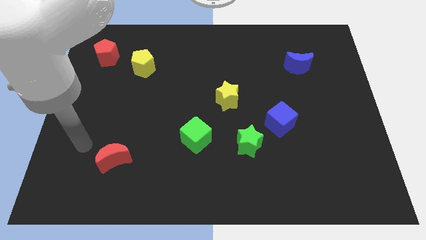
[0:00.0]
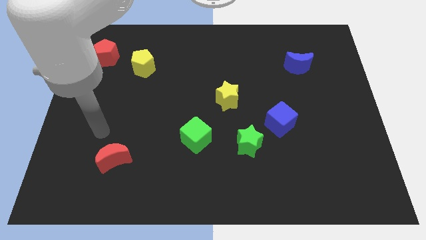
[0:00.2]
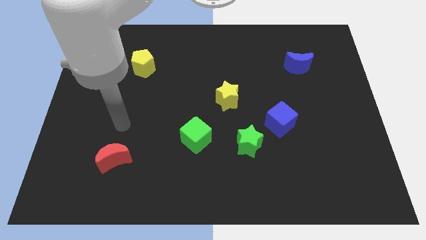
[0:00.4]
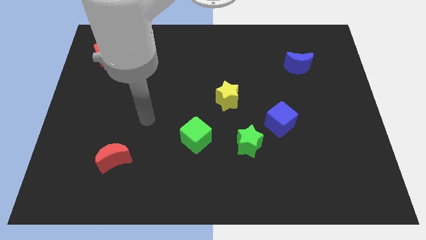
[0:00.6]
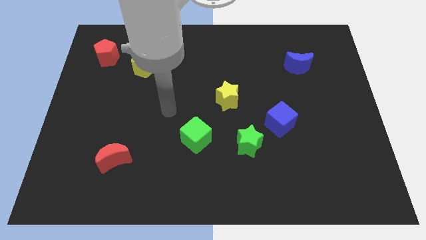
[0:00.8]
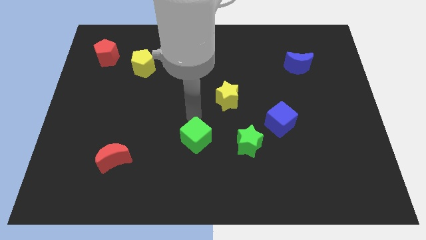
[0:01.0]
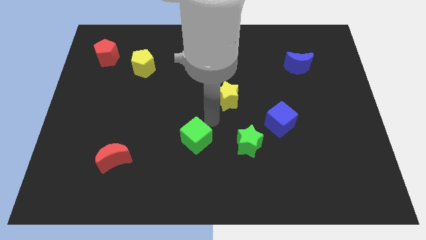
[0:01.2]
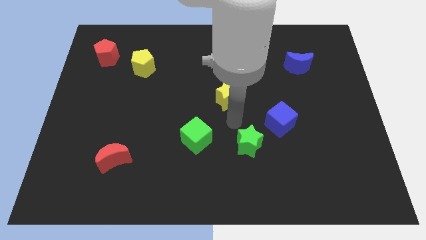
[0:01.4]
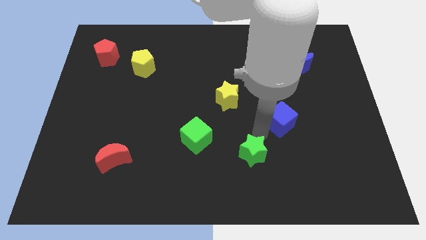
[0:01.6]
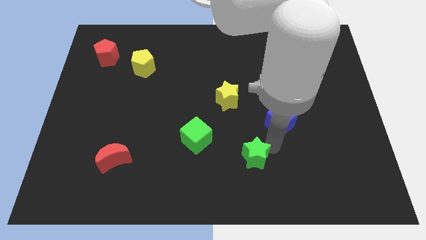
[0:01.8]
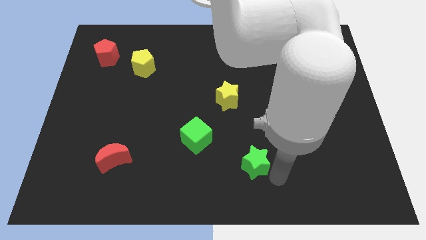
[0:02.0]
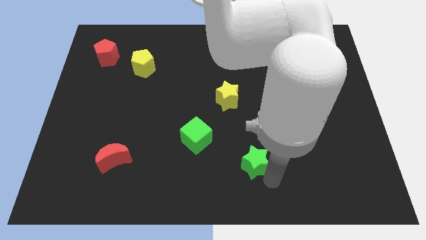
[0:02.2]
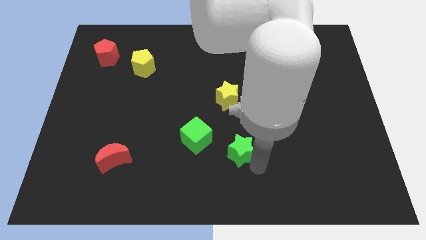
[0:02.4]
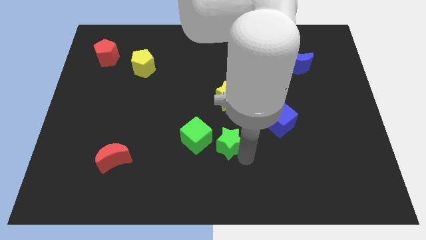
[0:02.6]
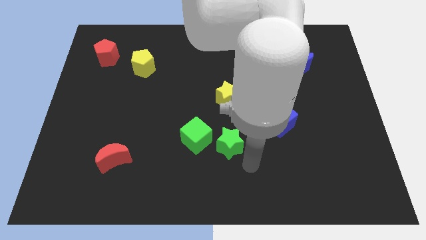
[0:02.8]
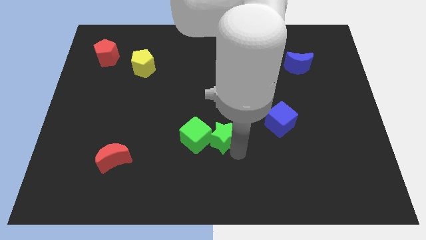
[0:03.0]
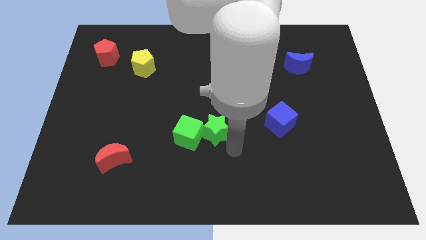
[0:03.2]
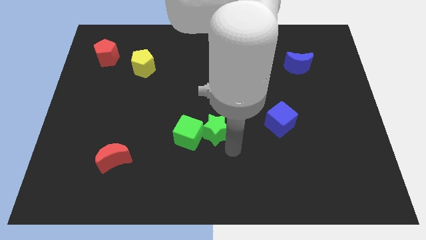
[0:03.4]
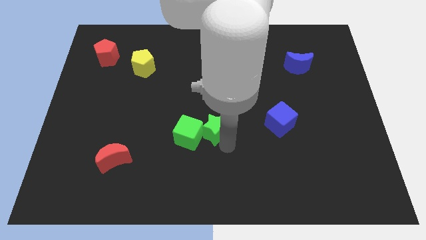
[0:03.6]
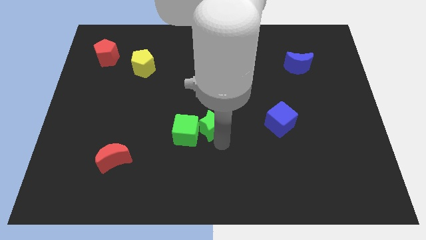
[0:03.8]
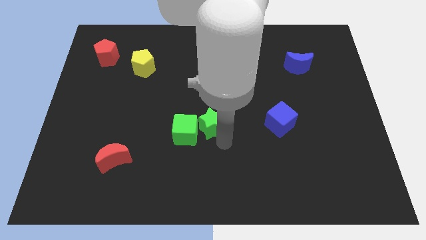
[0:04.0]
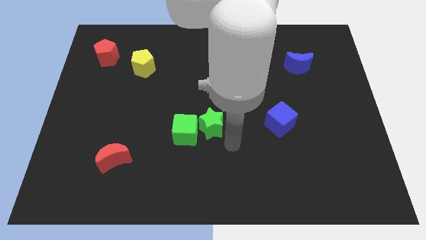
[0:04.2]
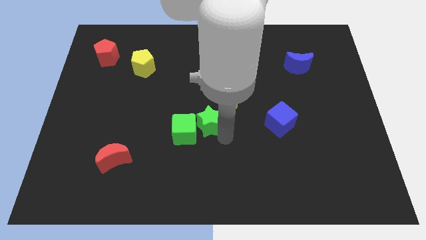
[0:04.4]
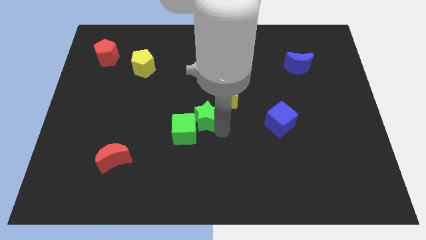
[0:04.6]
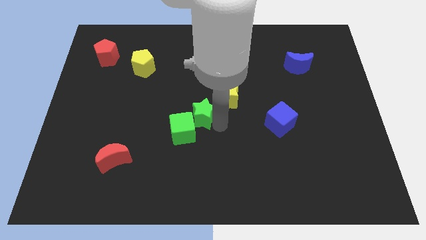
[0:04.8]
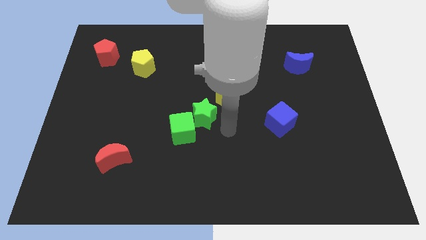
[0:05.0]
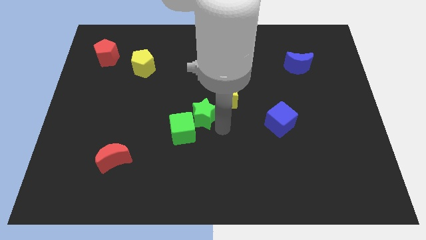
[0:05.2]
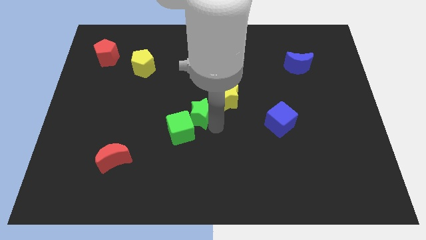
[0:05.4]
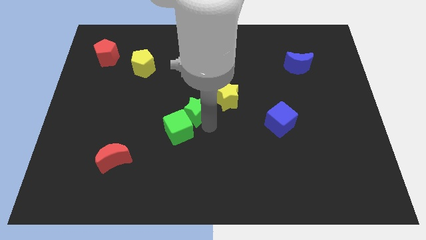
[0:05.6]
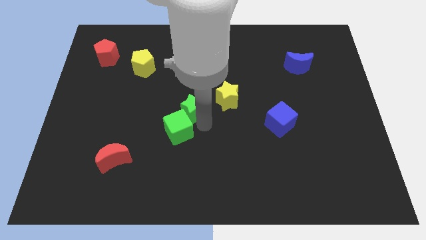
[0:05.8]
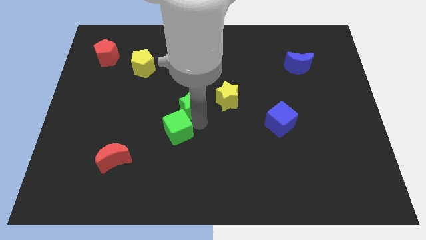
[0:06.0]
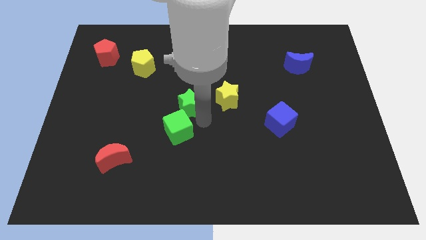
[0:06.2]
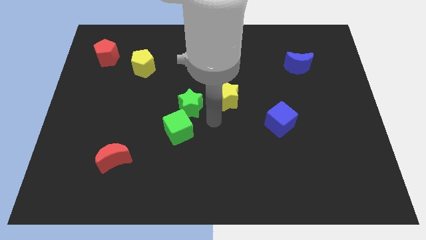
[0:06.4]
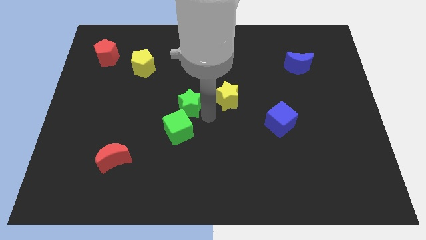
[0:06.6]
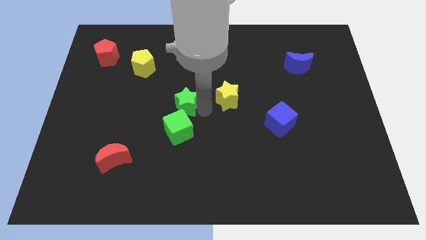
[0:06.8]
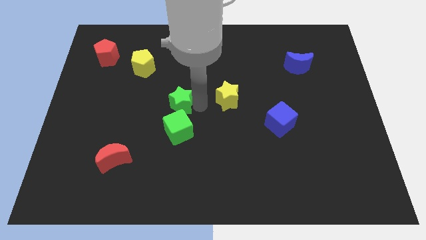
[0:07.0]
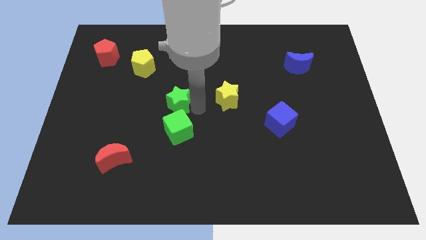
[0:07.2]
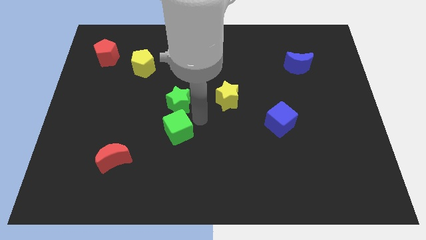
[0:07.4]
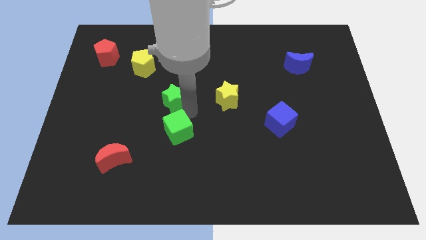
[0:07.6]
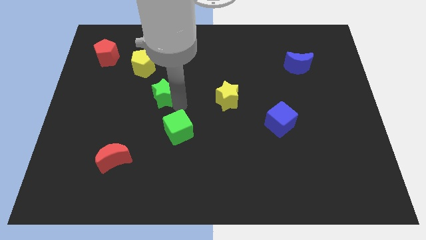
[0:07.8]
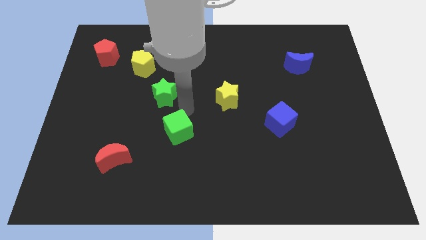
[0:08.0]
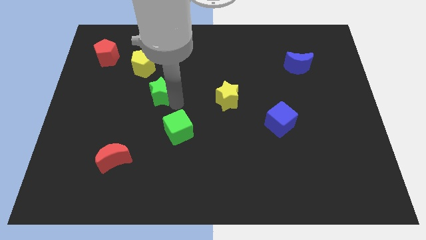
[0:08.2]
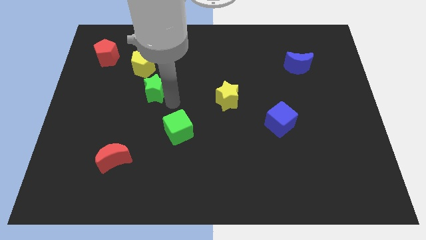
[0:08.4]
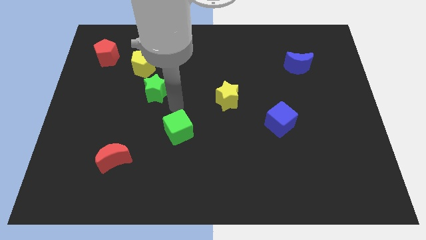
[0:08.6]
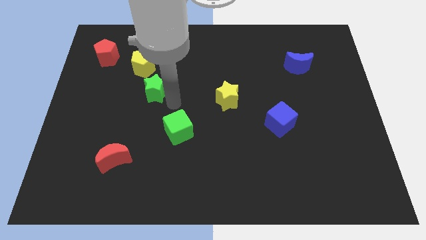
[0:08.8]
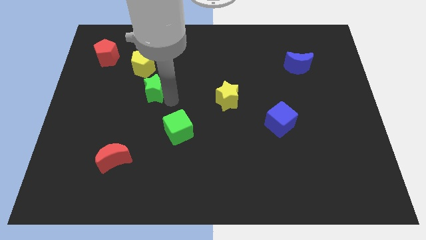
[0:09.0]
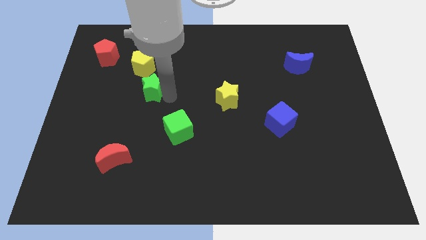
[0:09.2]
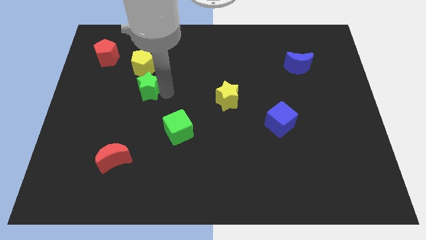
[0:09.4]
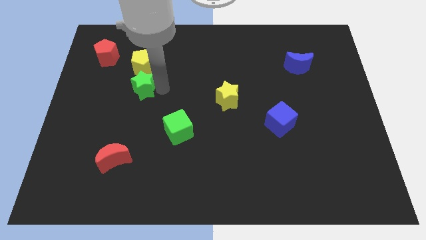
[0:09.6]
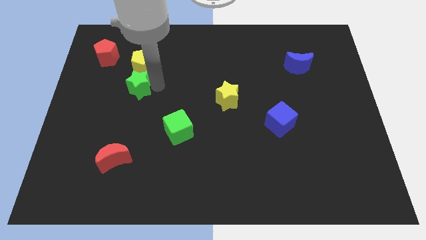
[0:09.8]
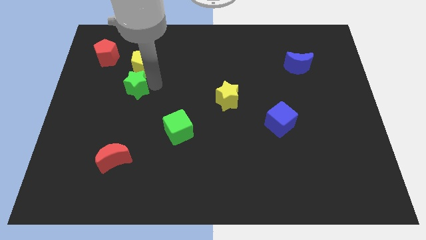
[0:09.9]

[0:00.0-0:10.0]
put the green star to the bottom left of the yellow pentagon

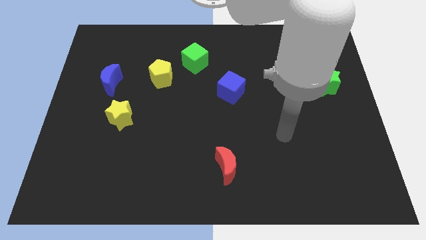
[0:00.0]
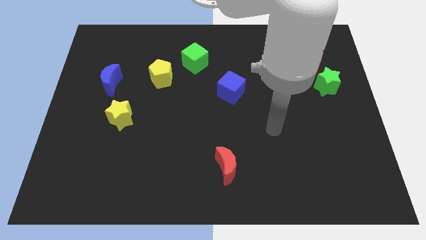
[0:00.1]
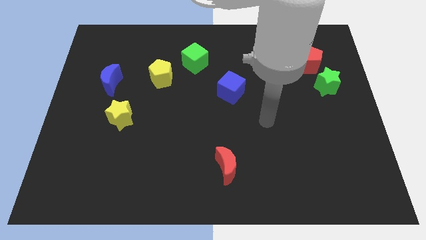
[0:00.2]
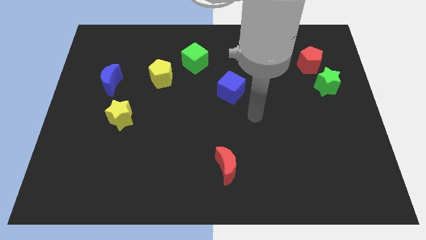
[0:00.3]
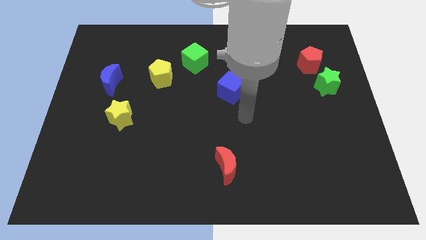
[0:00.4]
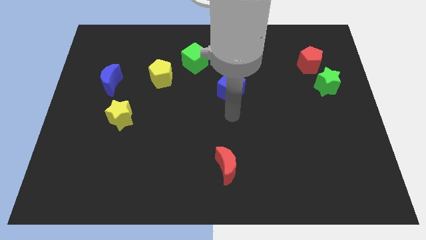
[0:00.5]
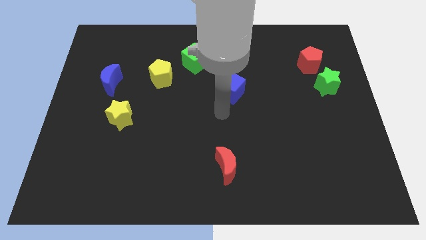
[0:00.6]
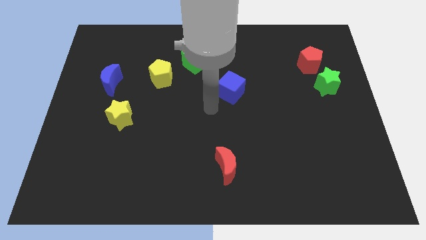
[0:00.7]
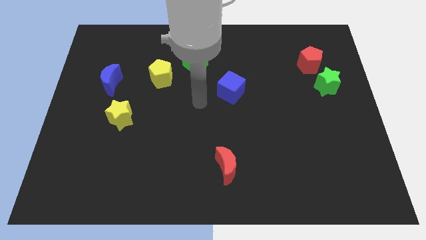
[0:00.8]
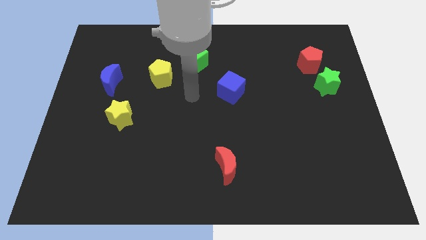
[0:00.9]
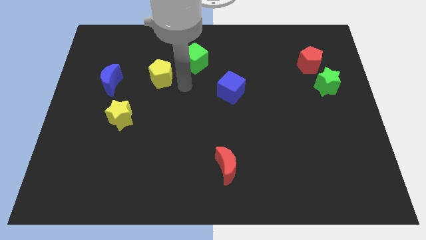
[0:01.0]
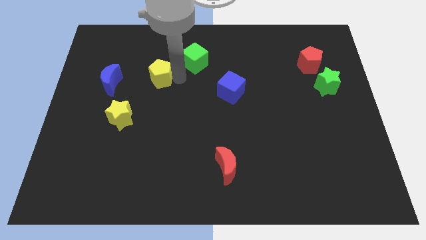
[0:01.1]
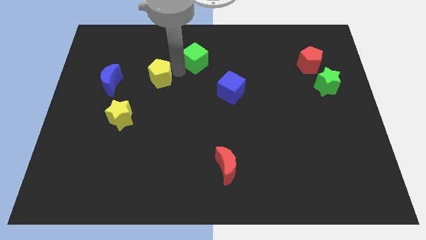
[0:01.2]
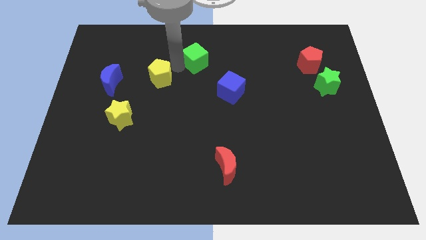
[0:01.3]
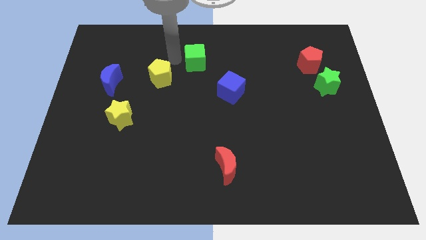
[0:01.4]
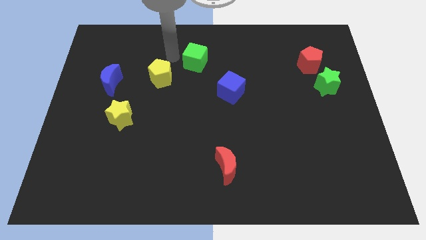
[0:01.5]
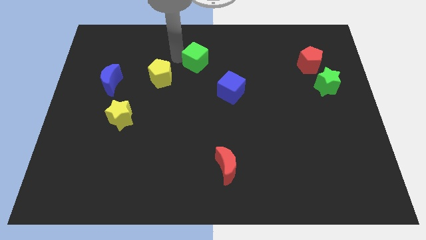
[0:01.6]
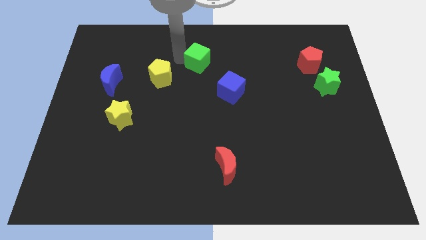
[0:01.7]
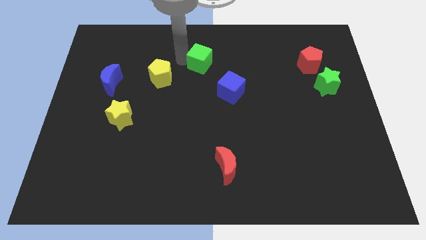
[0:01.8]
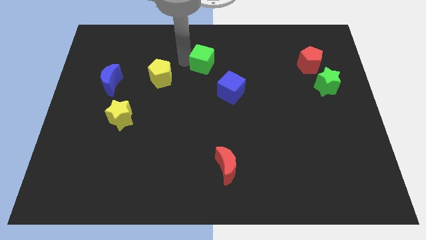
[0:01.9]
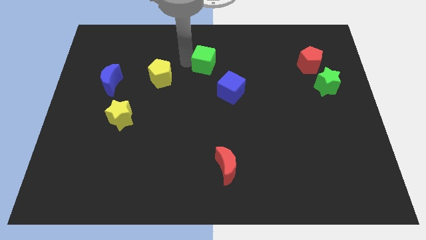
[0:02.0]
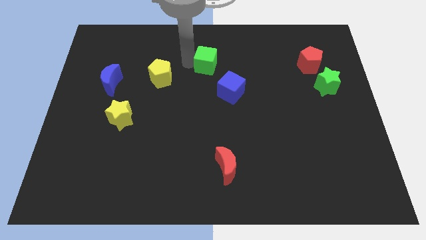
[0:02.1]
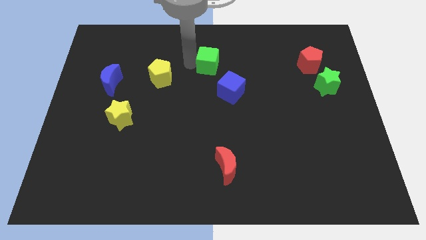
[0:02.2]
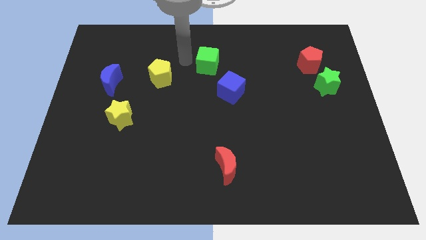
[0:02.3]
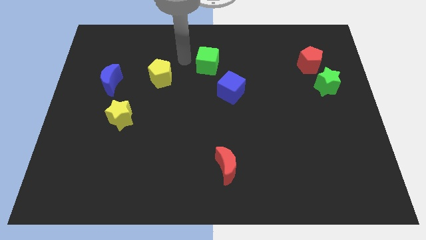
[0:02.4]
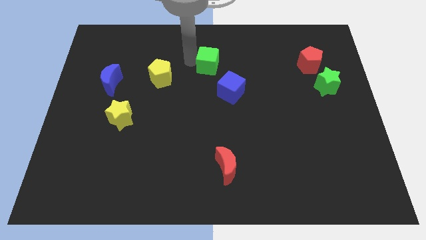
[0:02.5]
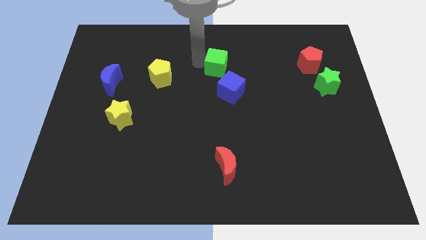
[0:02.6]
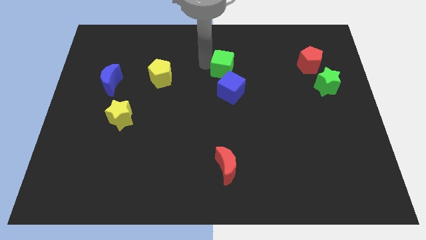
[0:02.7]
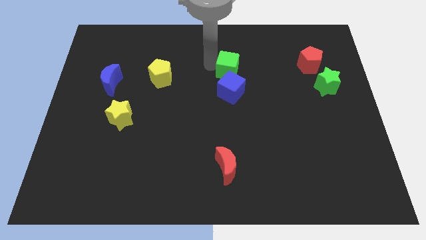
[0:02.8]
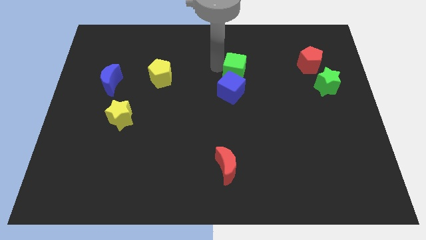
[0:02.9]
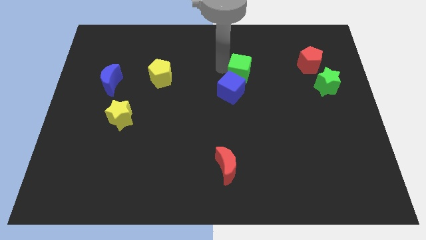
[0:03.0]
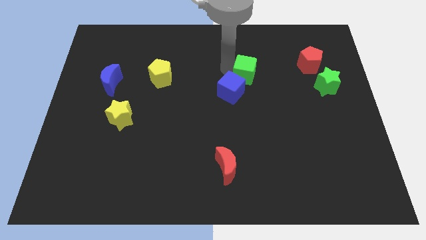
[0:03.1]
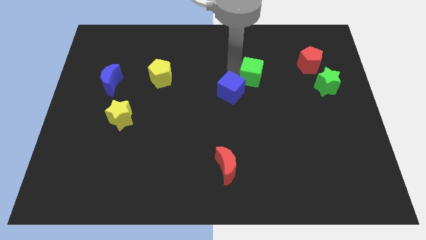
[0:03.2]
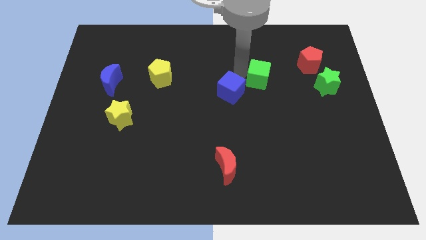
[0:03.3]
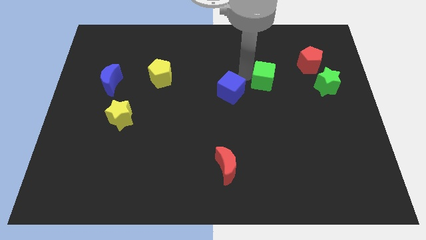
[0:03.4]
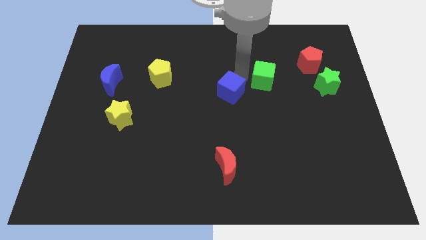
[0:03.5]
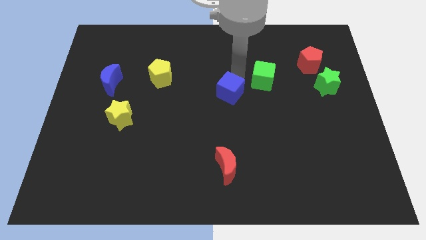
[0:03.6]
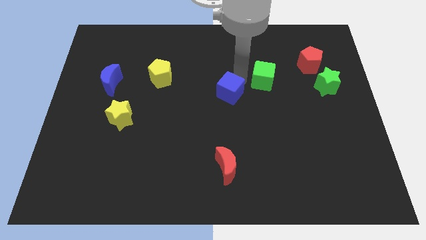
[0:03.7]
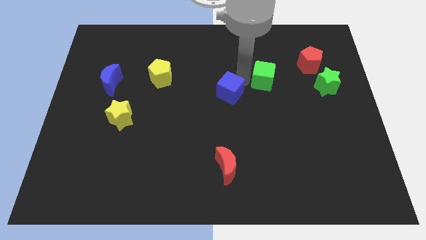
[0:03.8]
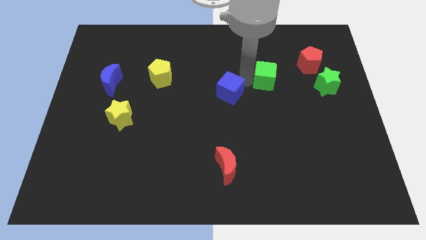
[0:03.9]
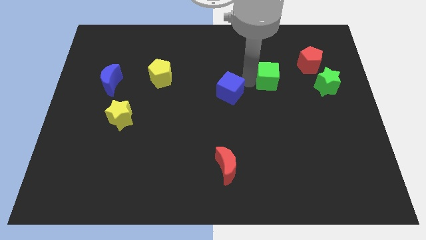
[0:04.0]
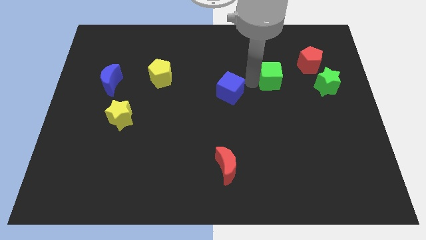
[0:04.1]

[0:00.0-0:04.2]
put the green cube to the bottom left of the red pentagon
